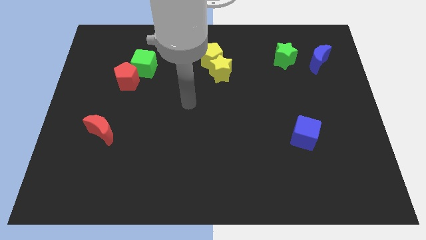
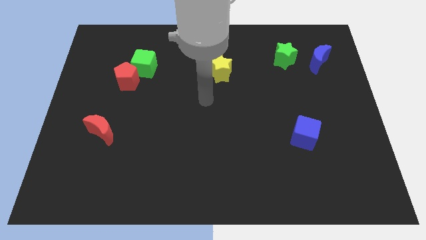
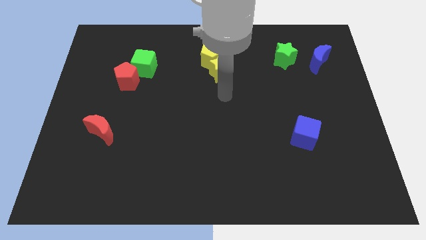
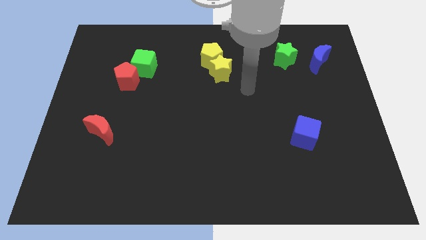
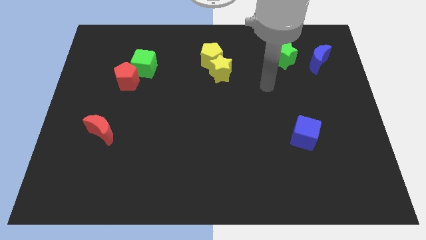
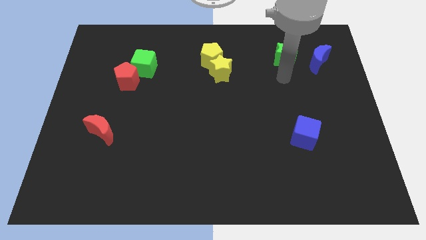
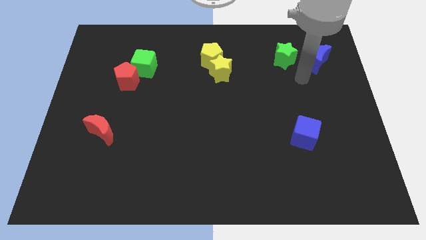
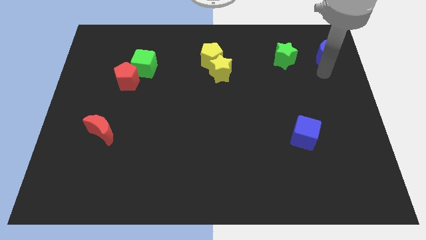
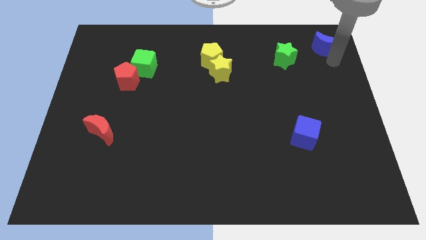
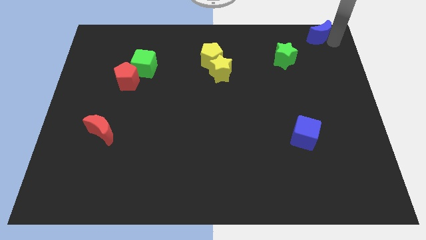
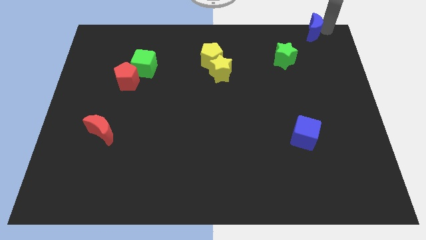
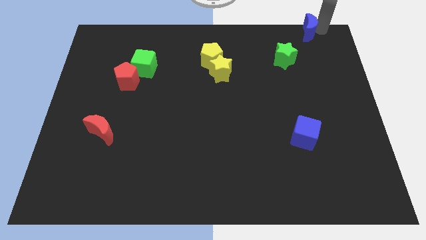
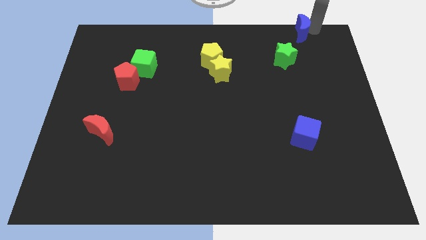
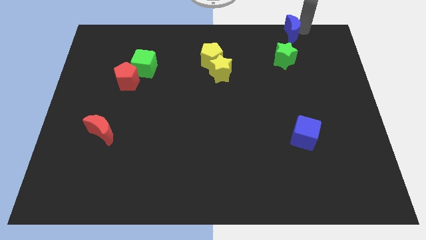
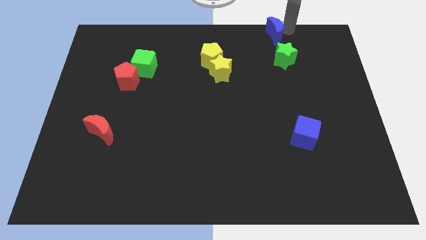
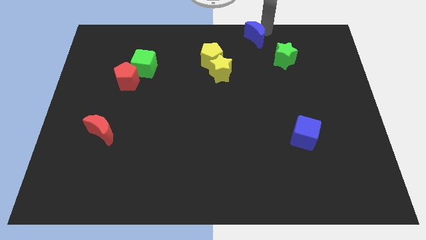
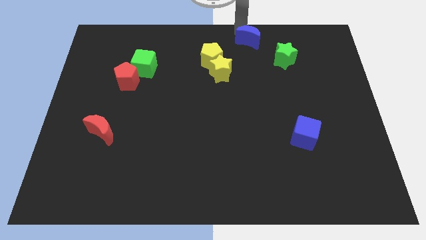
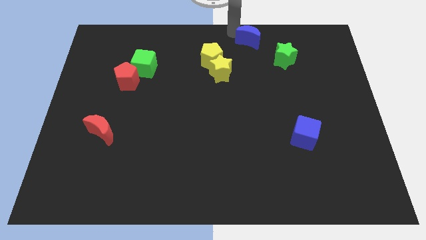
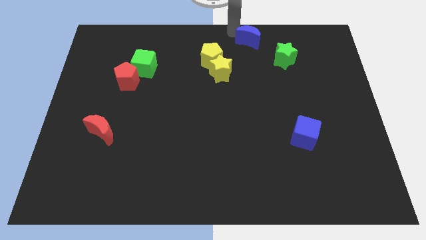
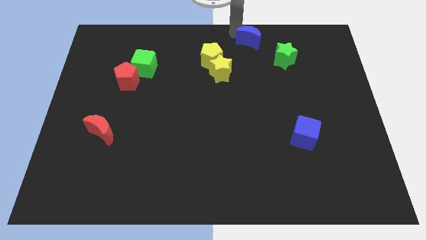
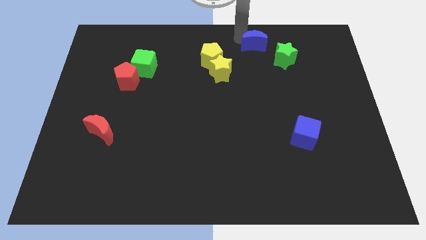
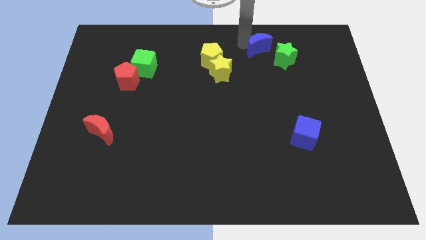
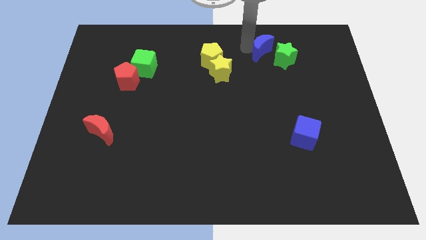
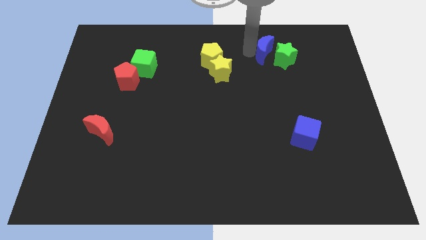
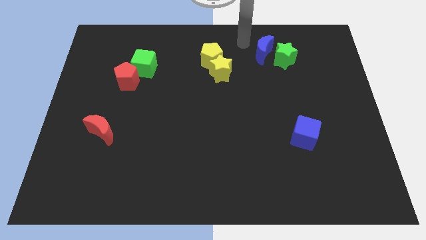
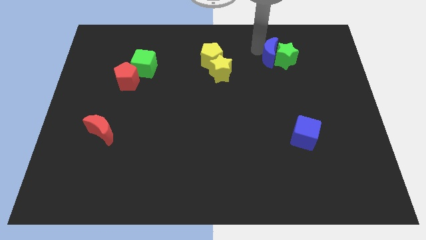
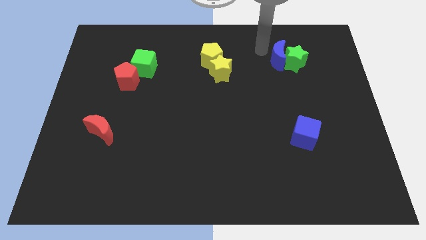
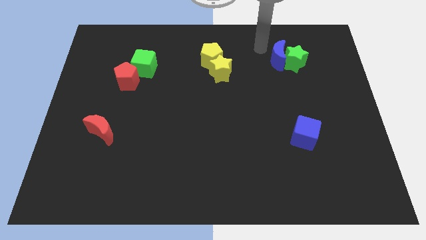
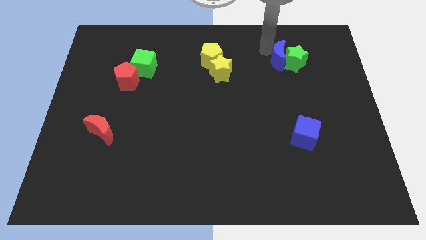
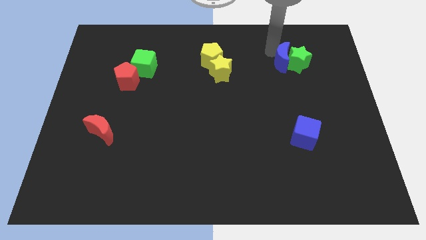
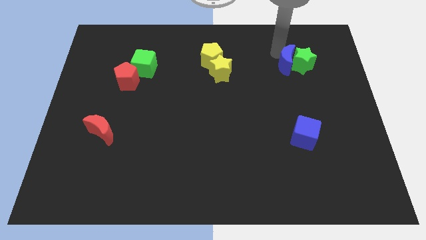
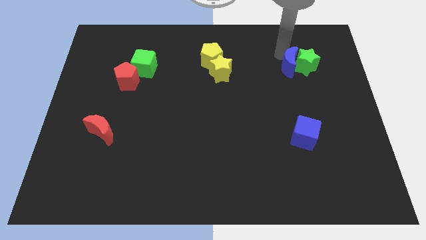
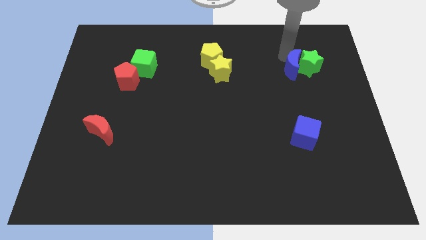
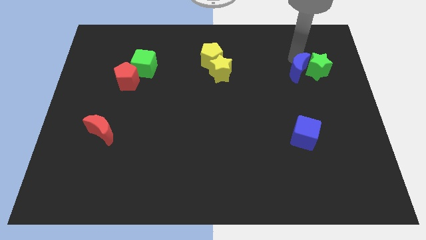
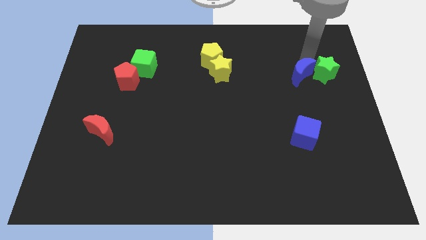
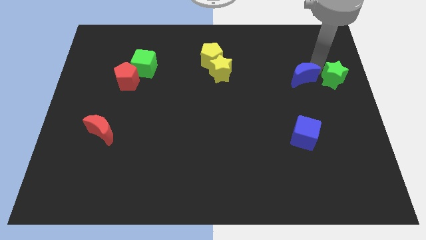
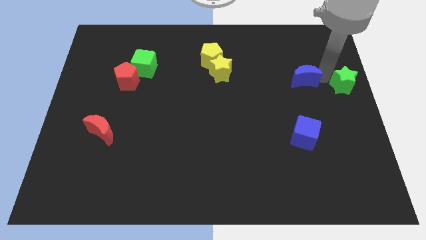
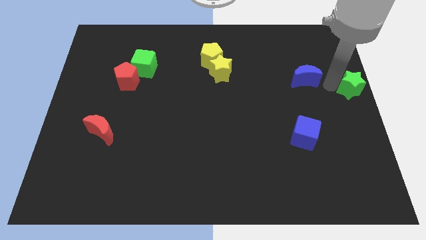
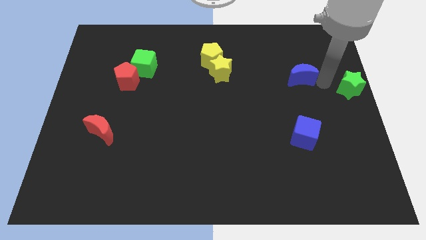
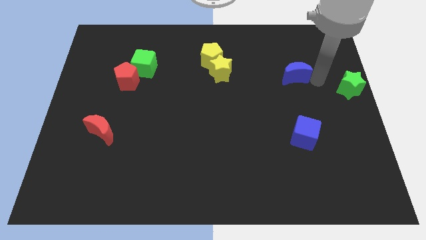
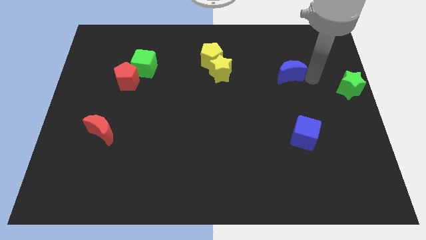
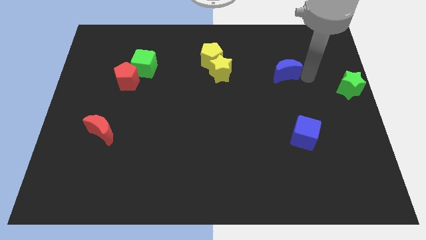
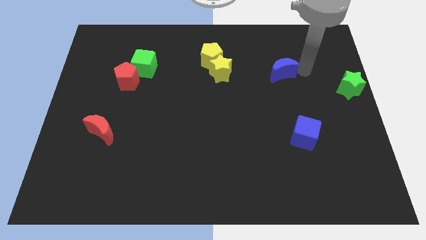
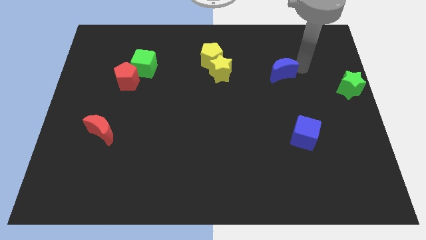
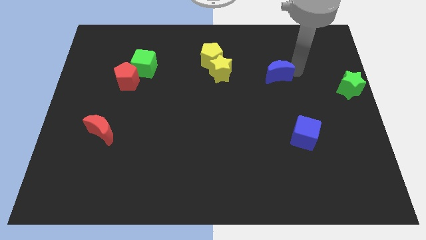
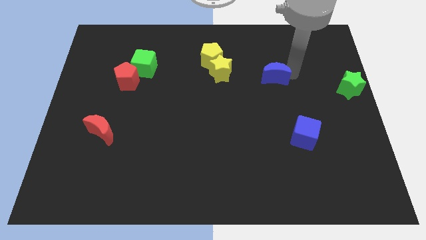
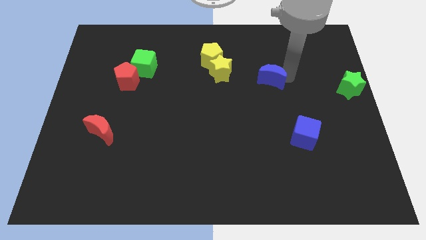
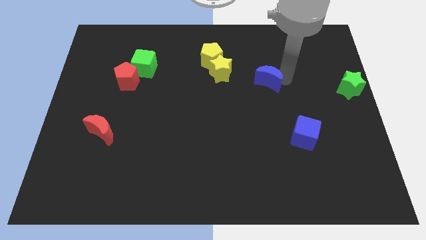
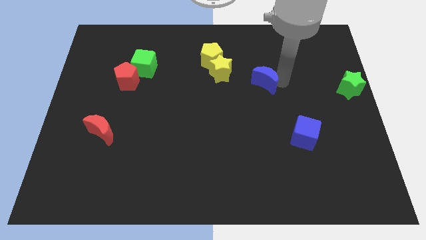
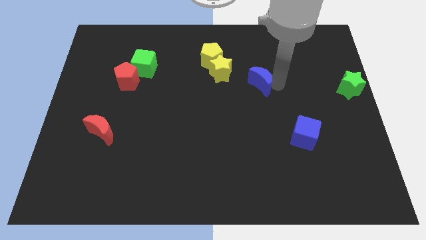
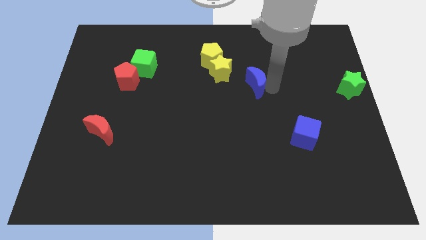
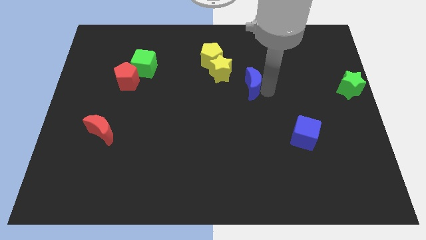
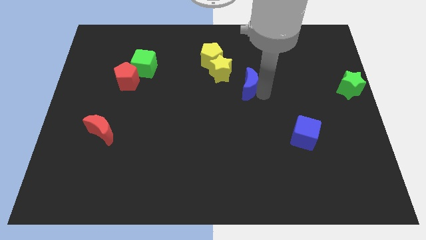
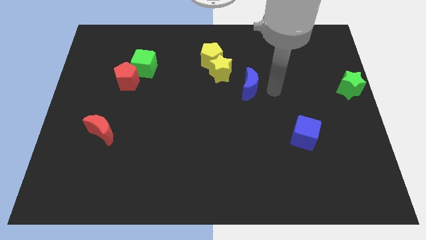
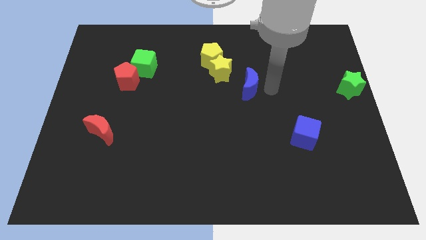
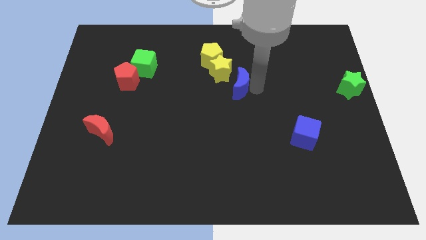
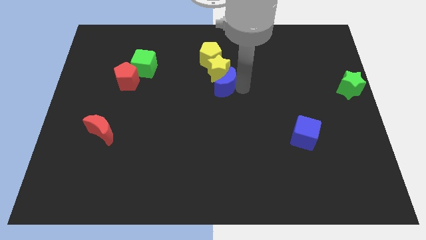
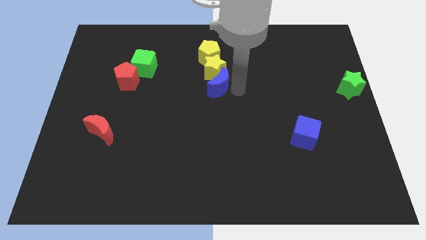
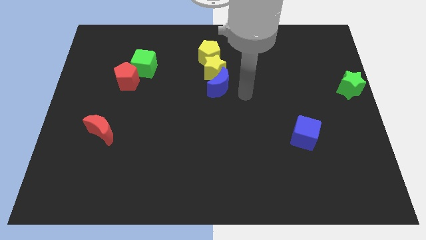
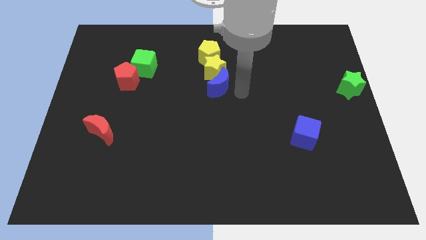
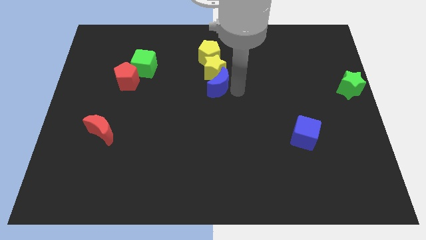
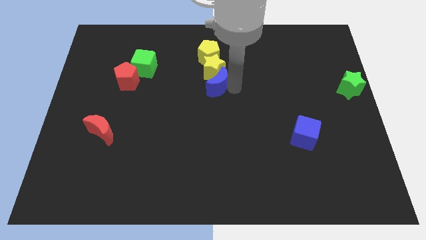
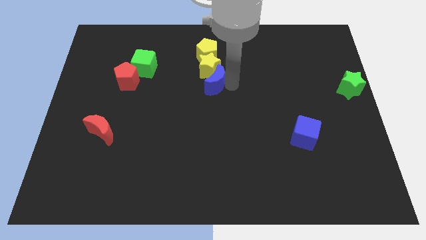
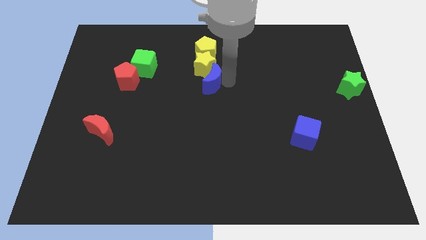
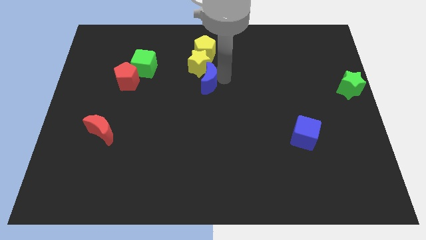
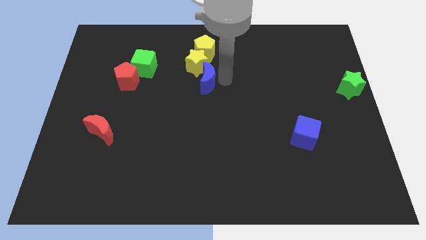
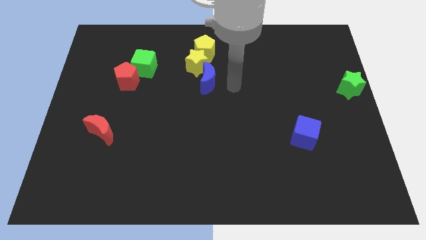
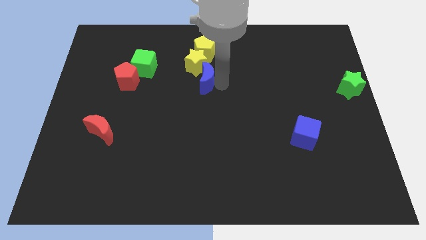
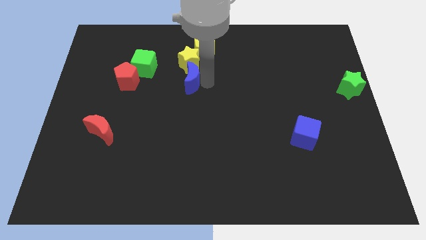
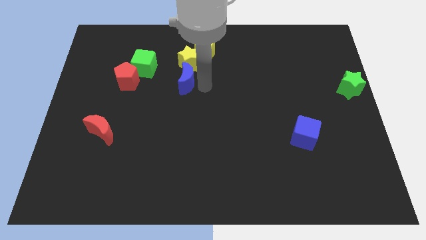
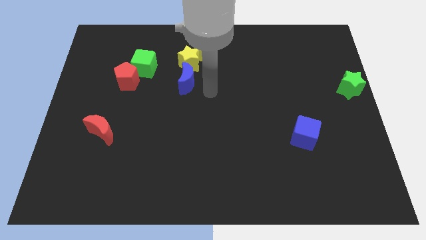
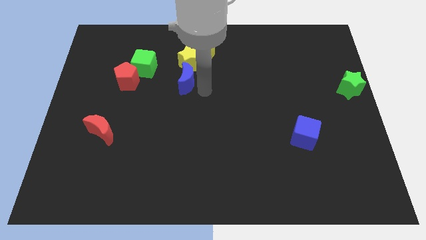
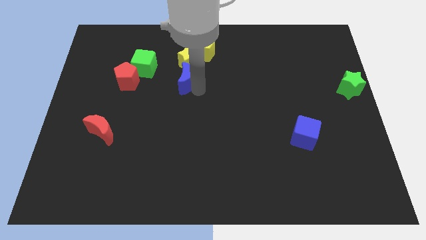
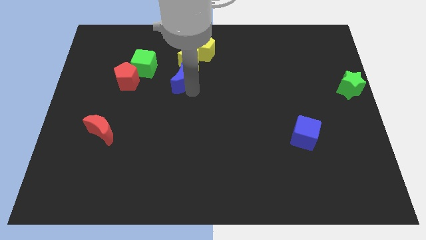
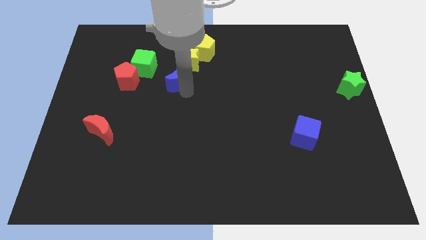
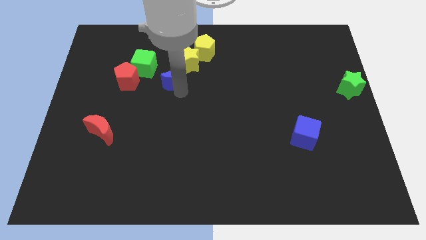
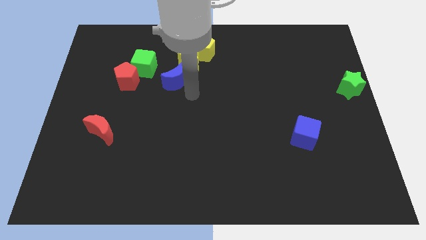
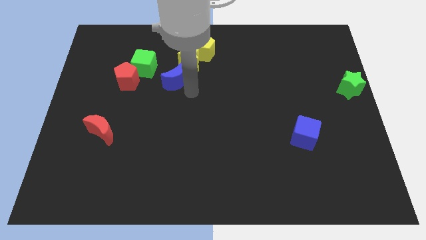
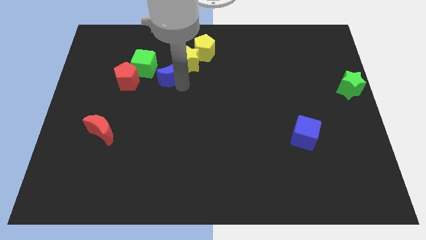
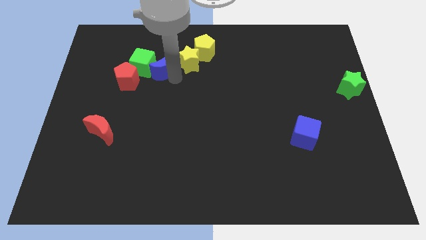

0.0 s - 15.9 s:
move the blue moon next to the green cube
